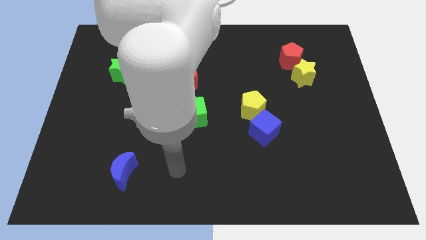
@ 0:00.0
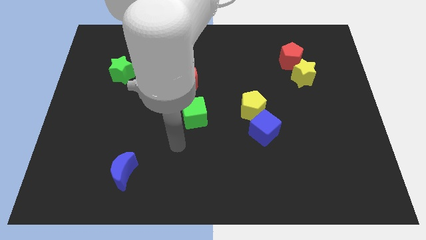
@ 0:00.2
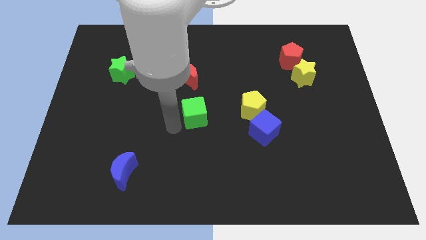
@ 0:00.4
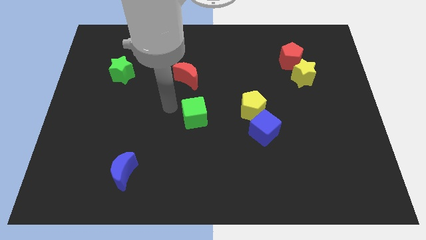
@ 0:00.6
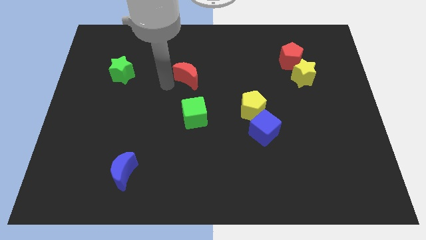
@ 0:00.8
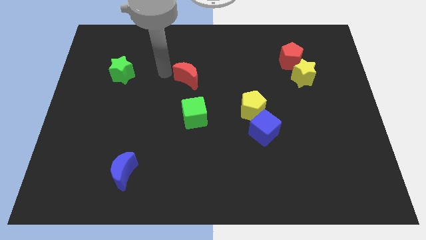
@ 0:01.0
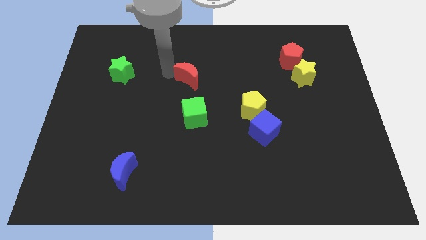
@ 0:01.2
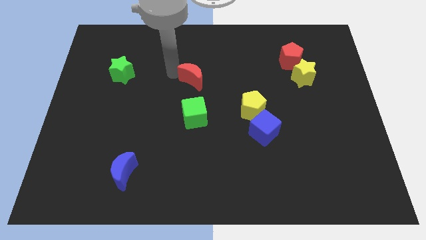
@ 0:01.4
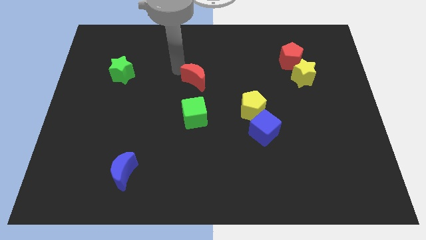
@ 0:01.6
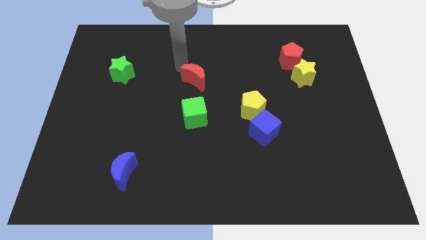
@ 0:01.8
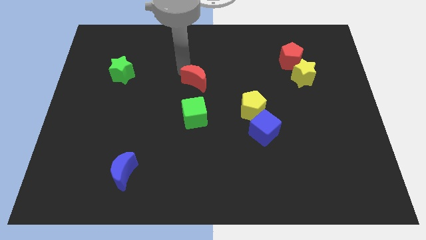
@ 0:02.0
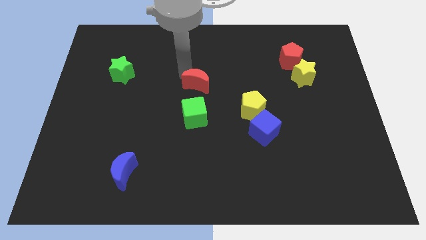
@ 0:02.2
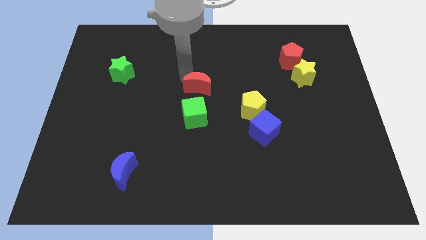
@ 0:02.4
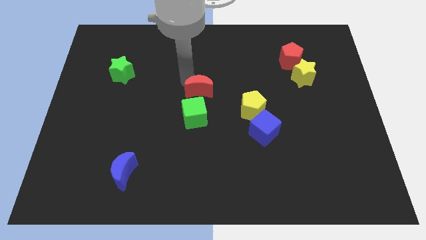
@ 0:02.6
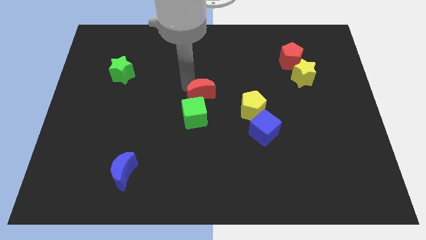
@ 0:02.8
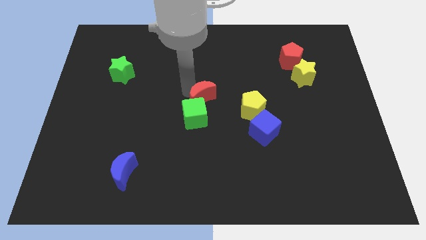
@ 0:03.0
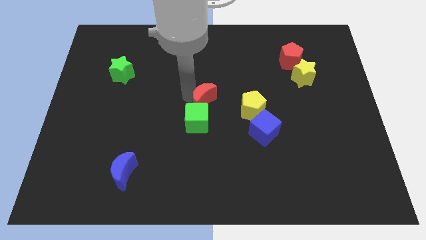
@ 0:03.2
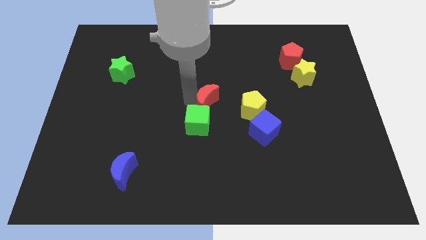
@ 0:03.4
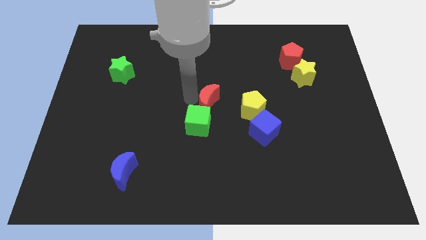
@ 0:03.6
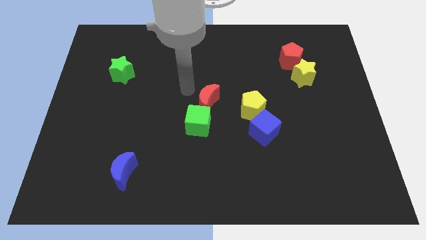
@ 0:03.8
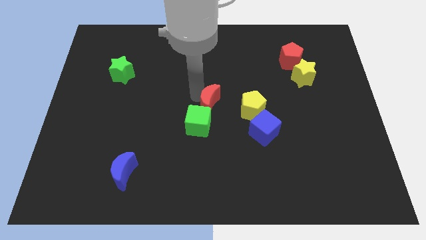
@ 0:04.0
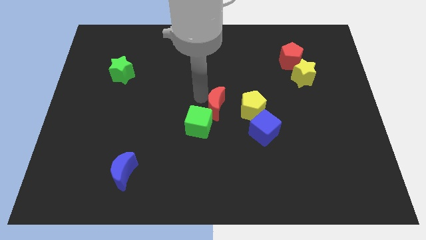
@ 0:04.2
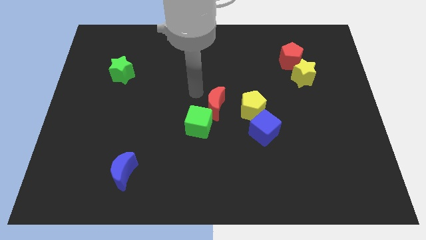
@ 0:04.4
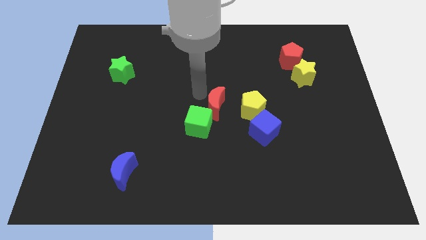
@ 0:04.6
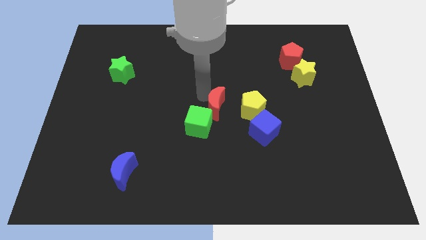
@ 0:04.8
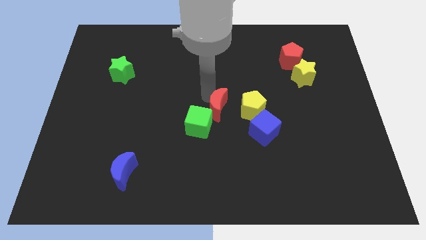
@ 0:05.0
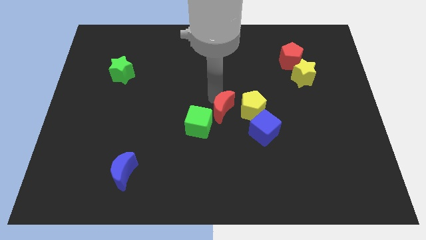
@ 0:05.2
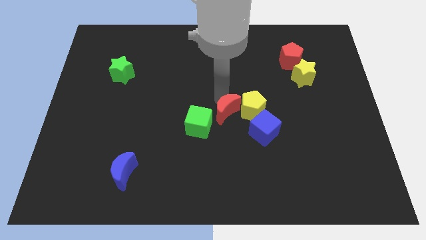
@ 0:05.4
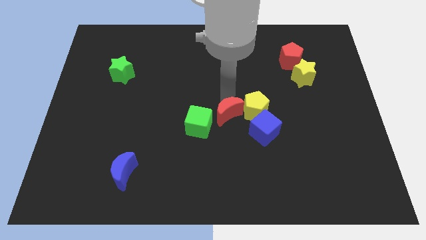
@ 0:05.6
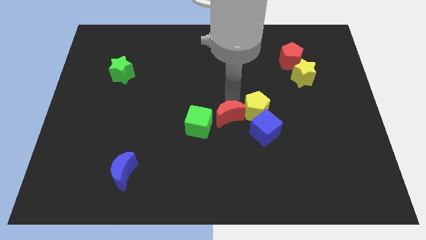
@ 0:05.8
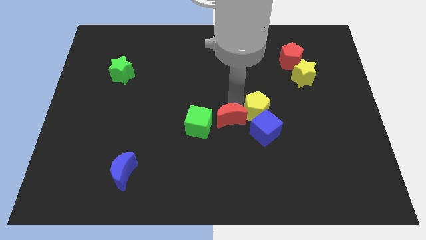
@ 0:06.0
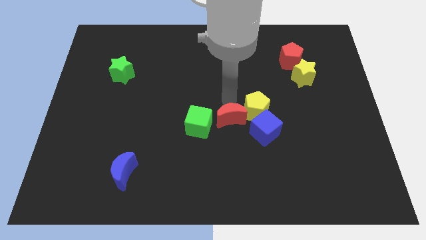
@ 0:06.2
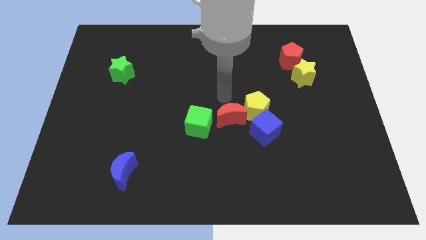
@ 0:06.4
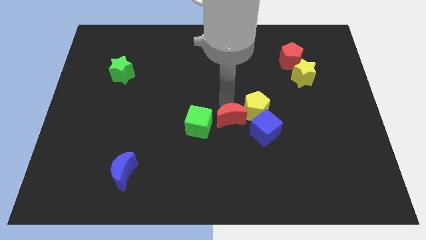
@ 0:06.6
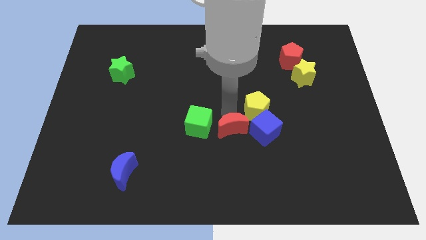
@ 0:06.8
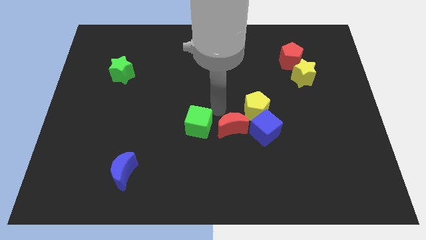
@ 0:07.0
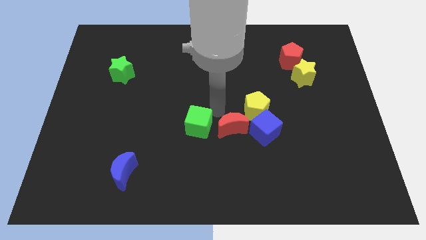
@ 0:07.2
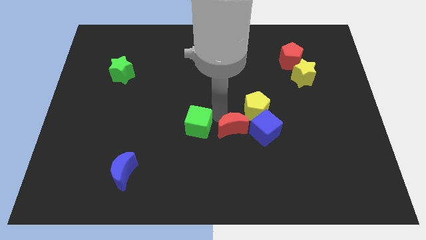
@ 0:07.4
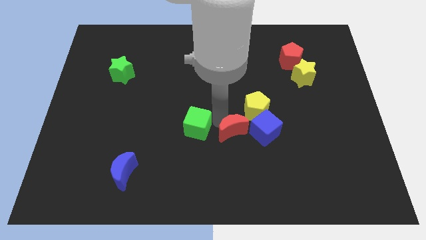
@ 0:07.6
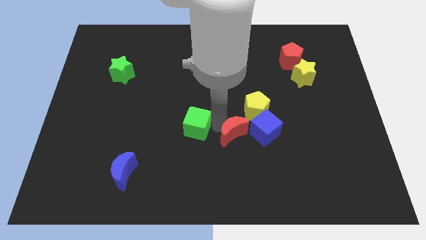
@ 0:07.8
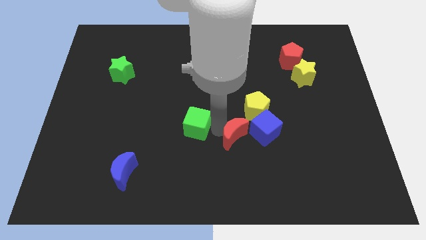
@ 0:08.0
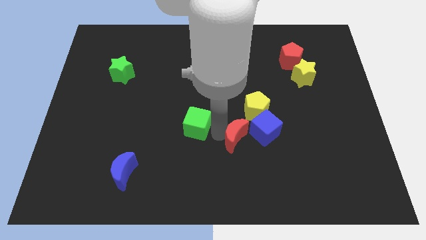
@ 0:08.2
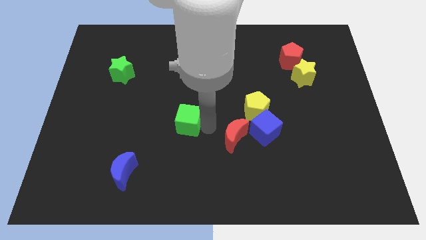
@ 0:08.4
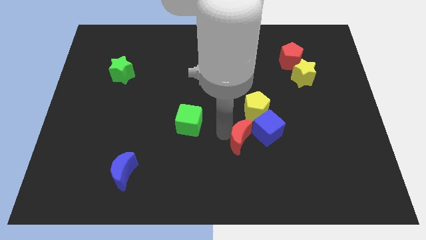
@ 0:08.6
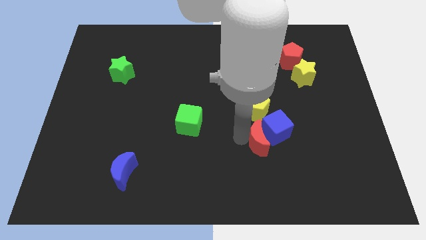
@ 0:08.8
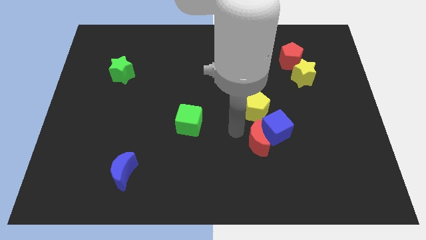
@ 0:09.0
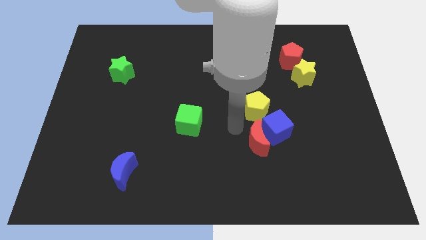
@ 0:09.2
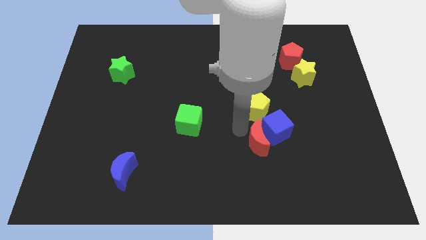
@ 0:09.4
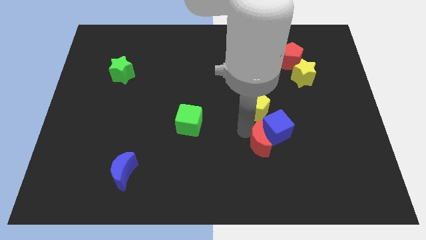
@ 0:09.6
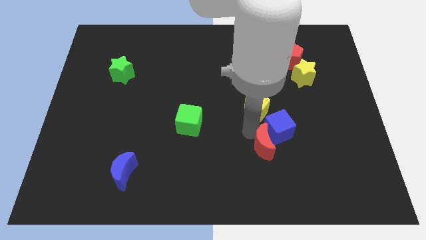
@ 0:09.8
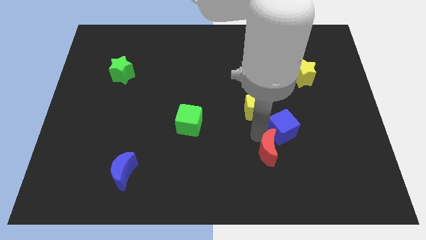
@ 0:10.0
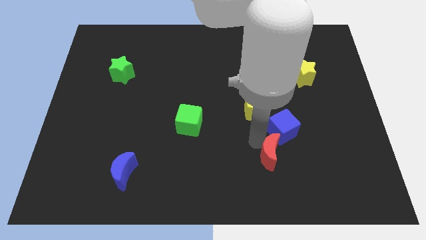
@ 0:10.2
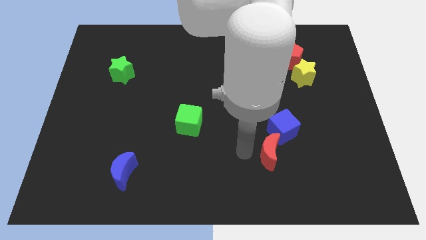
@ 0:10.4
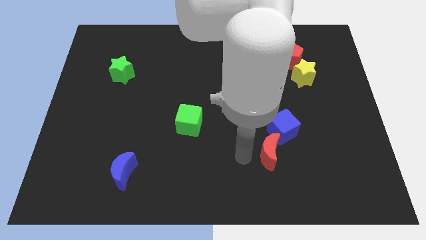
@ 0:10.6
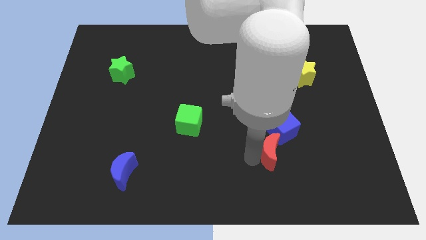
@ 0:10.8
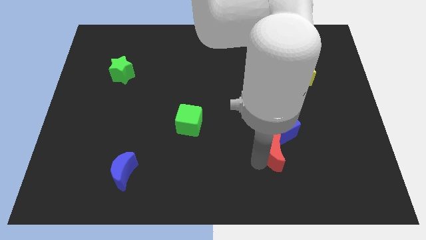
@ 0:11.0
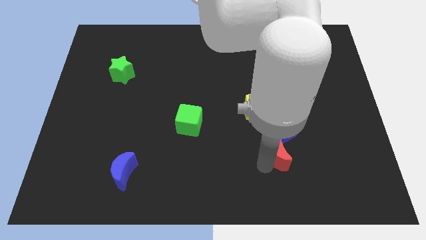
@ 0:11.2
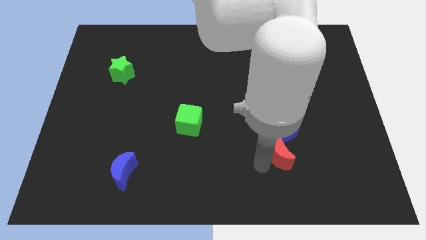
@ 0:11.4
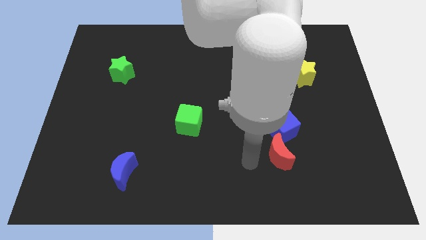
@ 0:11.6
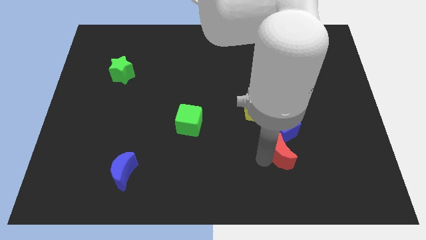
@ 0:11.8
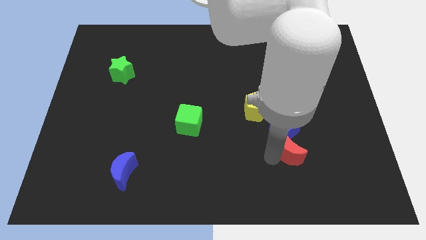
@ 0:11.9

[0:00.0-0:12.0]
push the red moon diagonally down and to the right of the blue cube
